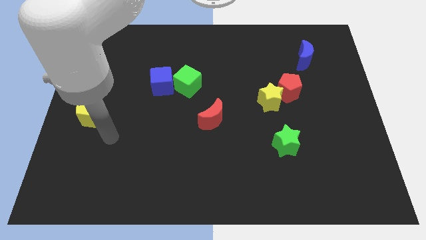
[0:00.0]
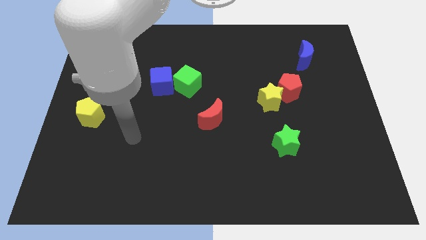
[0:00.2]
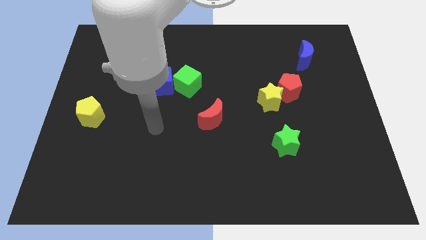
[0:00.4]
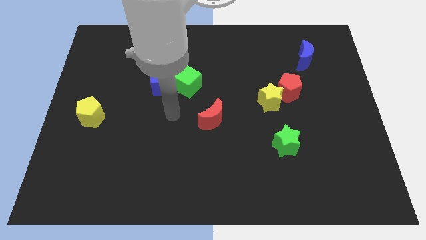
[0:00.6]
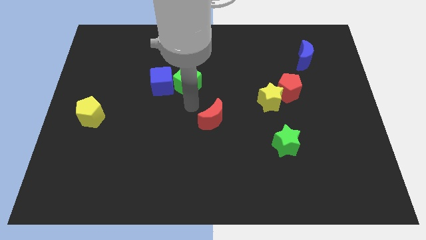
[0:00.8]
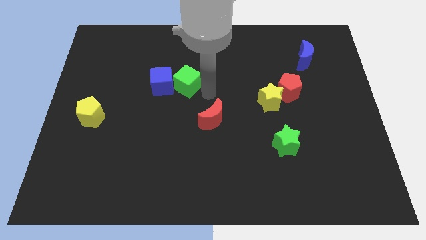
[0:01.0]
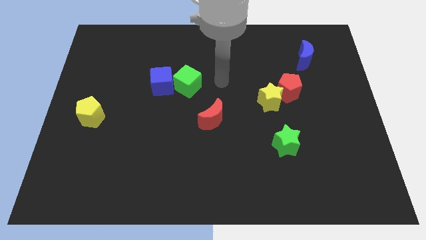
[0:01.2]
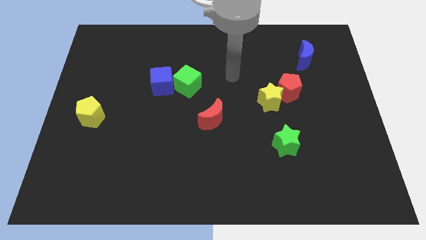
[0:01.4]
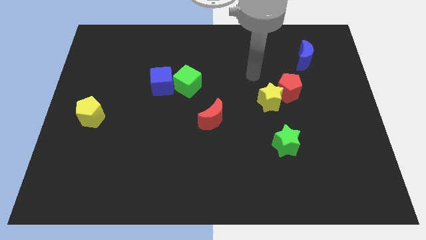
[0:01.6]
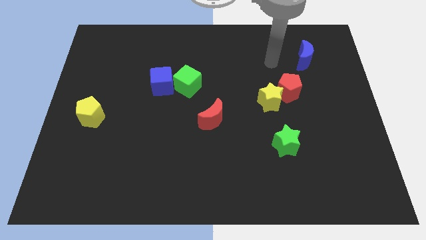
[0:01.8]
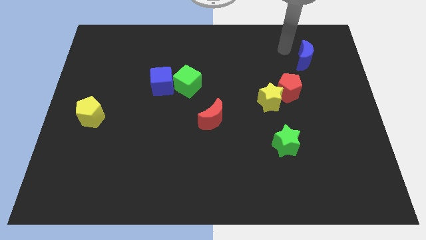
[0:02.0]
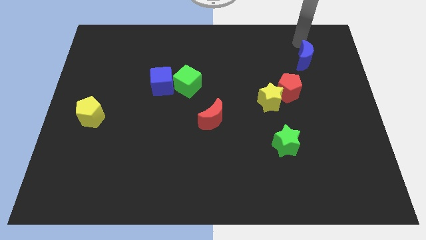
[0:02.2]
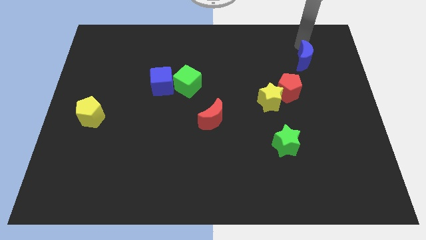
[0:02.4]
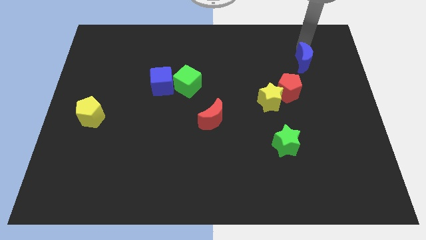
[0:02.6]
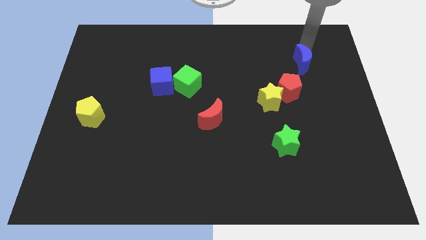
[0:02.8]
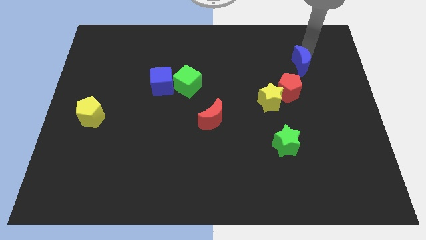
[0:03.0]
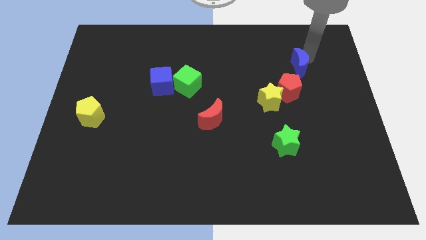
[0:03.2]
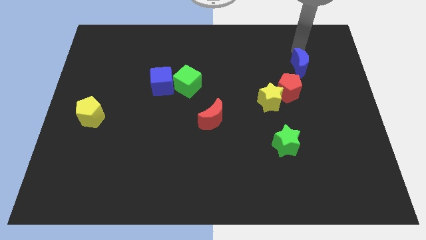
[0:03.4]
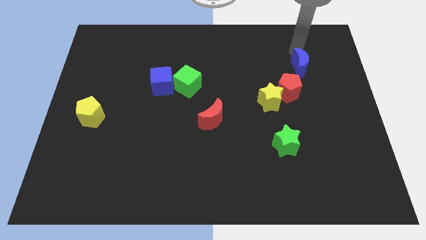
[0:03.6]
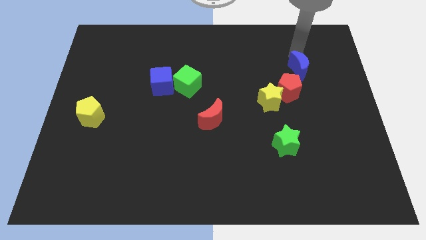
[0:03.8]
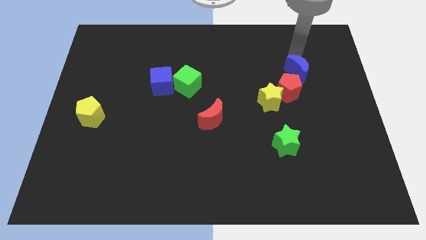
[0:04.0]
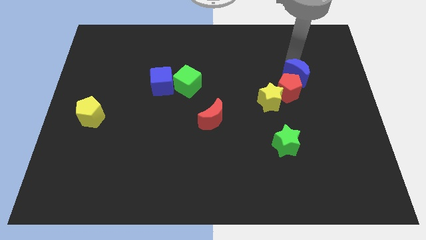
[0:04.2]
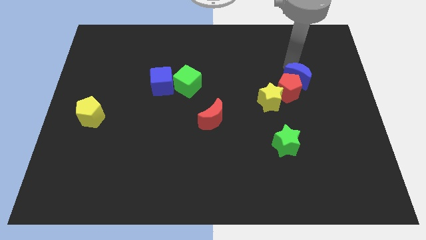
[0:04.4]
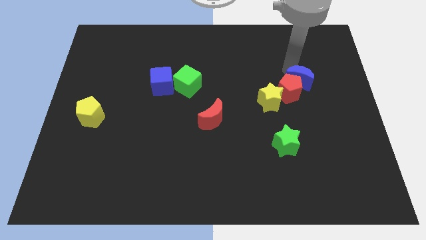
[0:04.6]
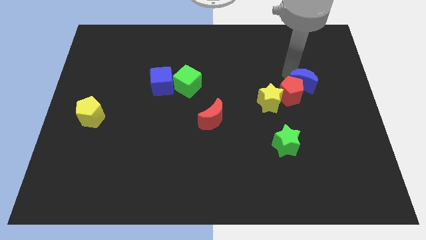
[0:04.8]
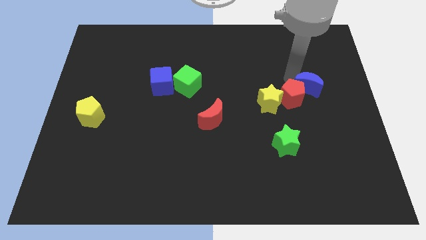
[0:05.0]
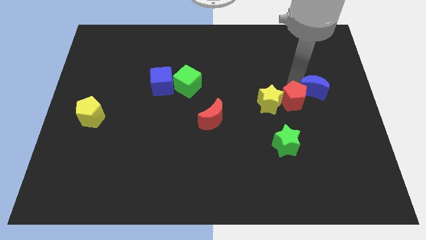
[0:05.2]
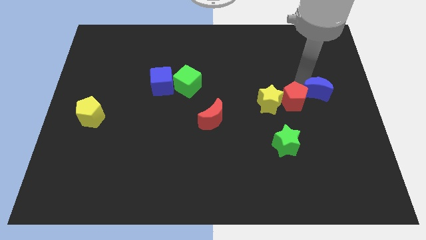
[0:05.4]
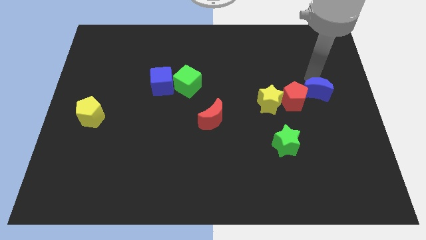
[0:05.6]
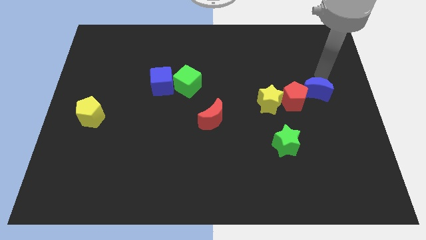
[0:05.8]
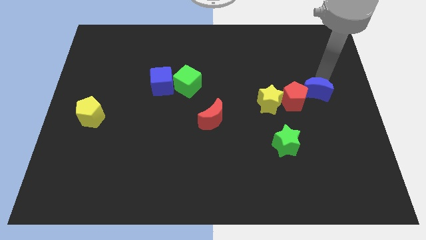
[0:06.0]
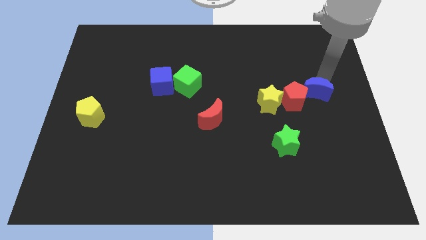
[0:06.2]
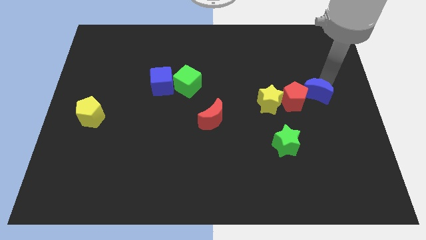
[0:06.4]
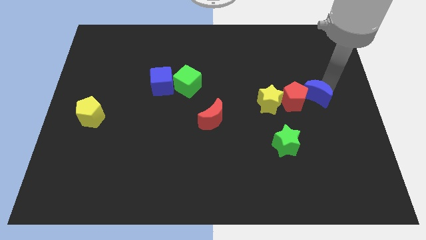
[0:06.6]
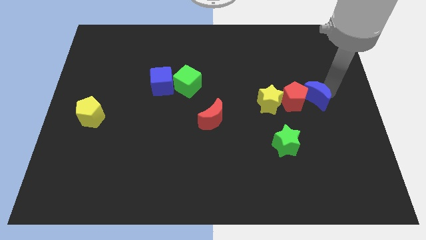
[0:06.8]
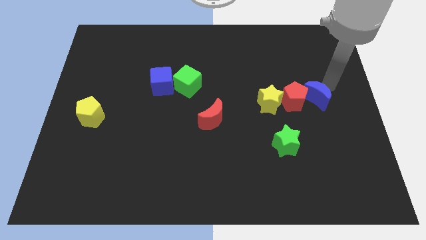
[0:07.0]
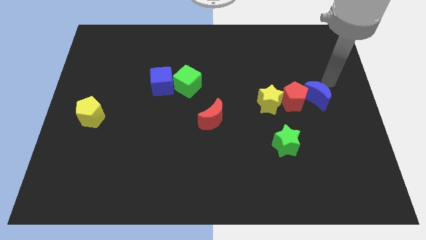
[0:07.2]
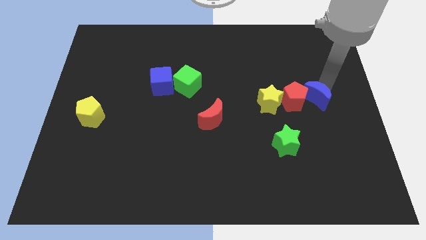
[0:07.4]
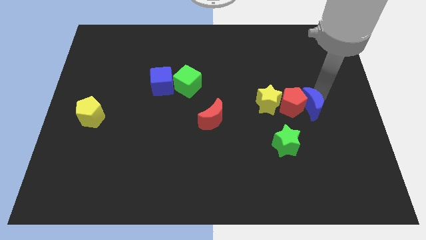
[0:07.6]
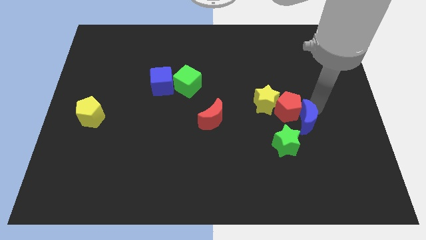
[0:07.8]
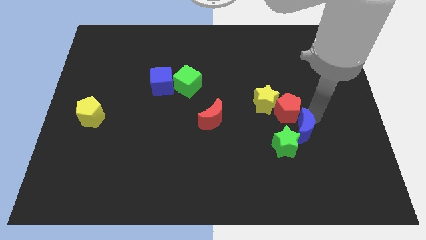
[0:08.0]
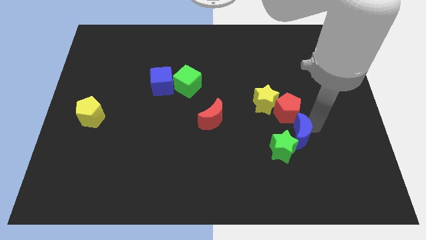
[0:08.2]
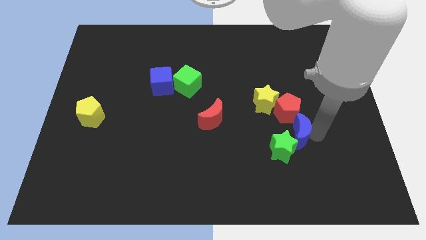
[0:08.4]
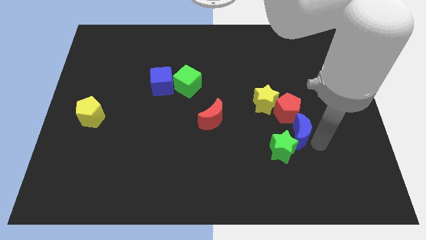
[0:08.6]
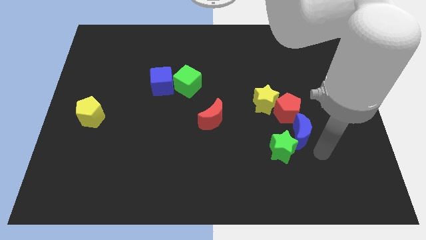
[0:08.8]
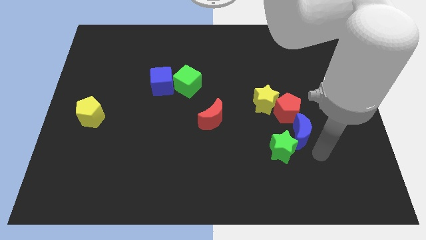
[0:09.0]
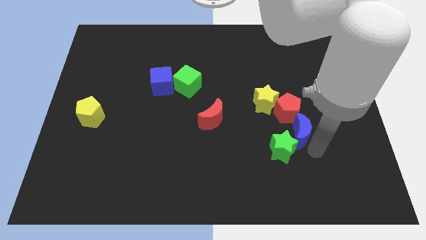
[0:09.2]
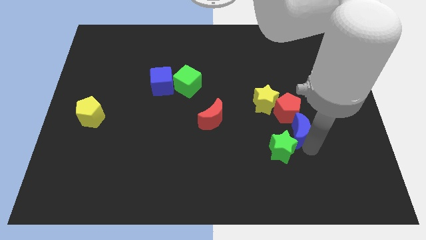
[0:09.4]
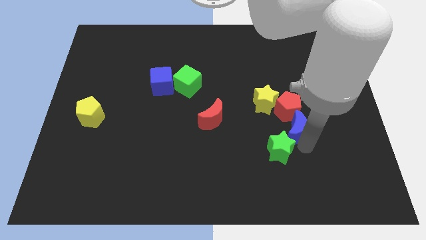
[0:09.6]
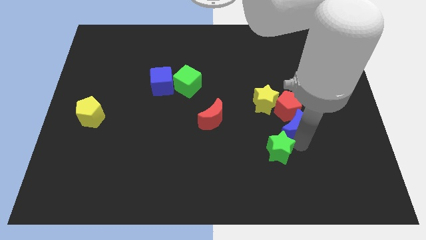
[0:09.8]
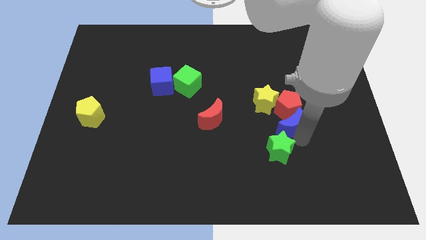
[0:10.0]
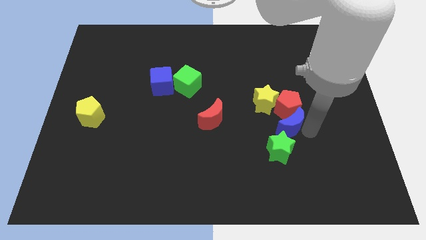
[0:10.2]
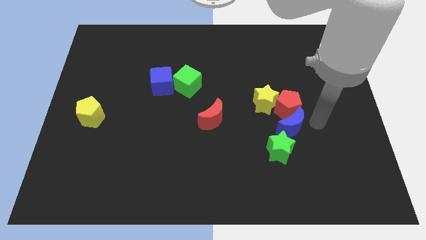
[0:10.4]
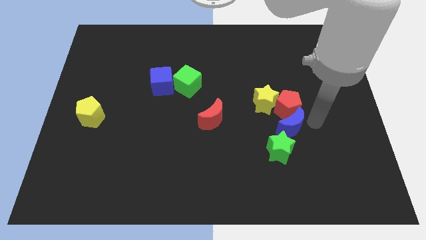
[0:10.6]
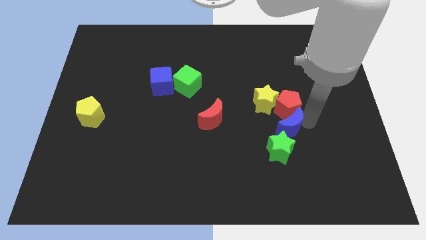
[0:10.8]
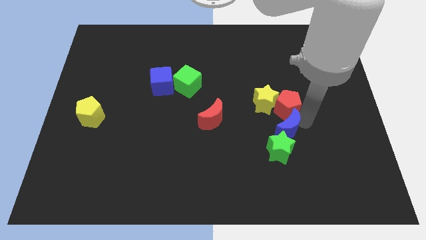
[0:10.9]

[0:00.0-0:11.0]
move the blue moon to the bottom side of the yellow star

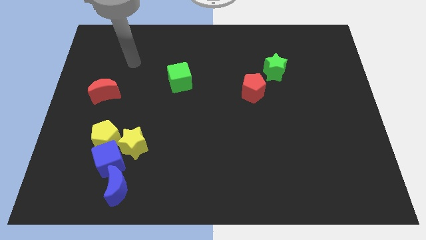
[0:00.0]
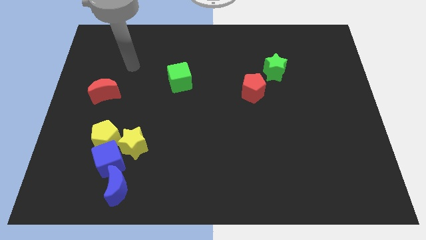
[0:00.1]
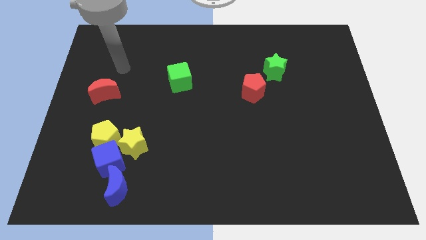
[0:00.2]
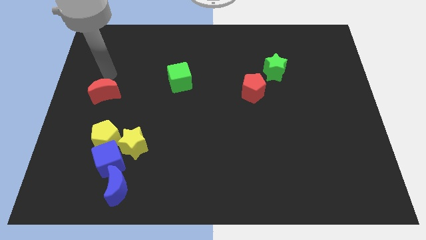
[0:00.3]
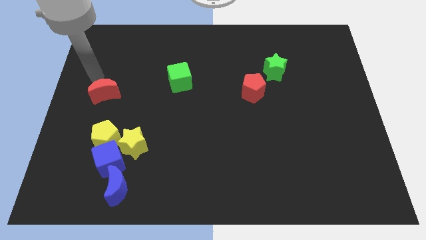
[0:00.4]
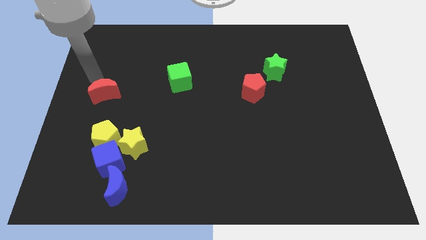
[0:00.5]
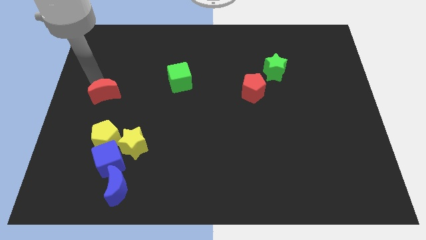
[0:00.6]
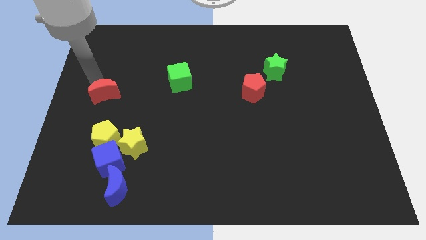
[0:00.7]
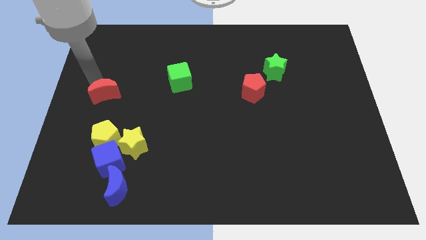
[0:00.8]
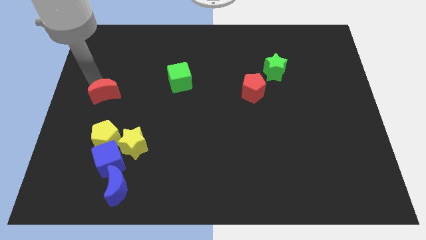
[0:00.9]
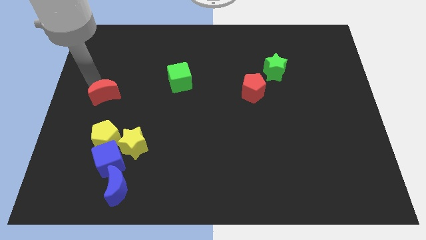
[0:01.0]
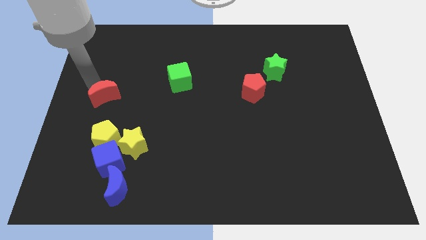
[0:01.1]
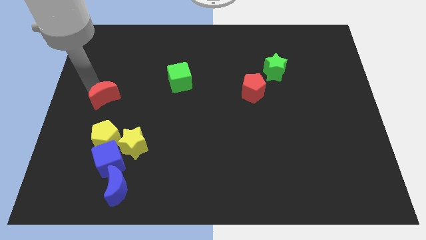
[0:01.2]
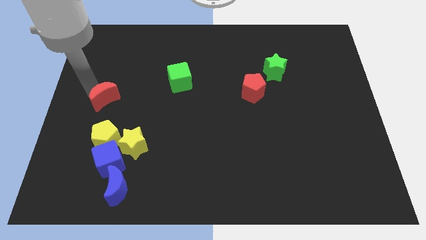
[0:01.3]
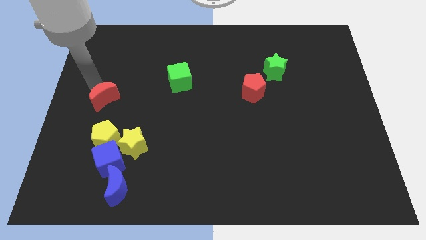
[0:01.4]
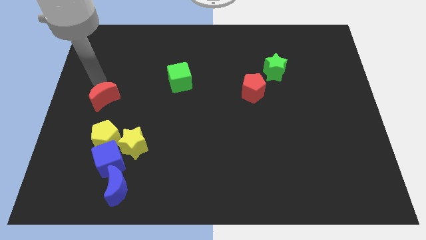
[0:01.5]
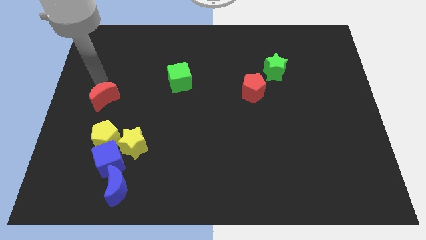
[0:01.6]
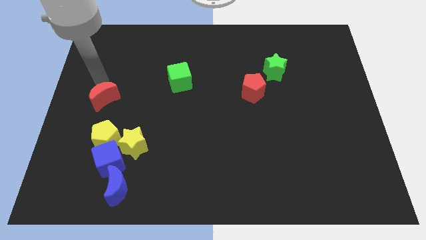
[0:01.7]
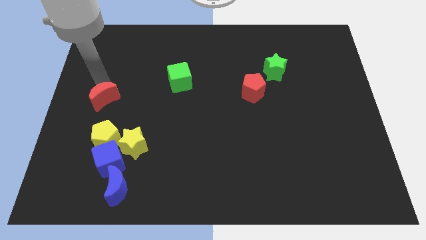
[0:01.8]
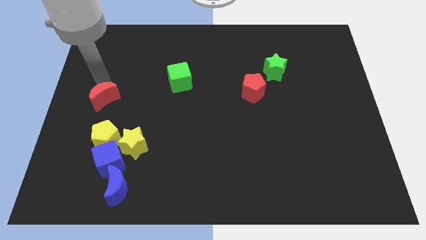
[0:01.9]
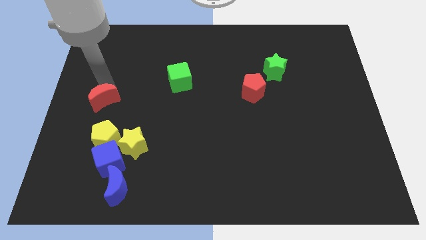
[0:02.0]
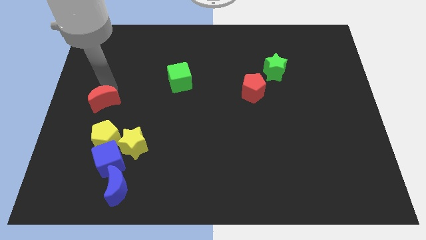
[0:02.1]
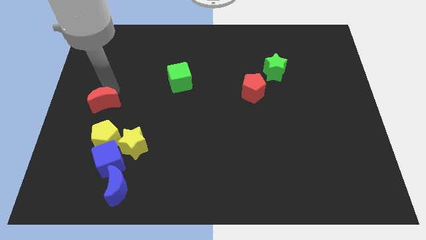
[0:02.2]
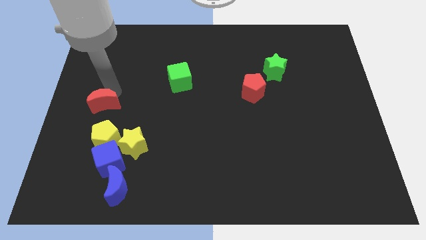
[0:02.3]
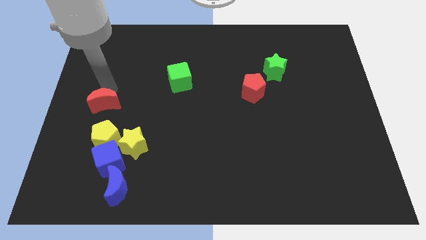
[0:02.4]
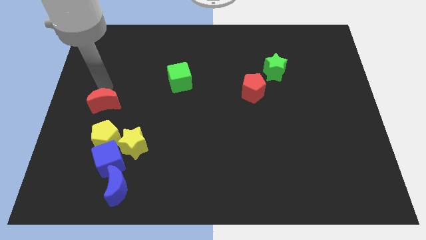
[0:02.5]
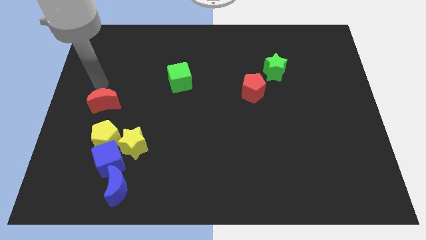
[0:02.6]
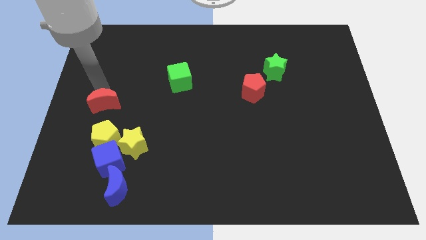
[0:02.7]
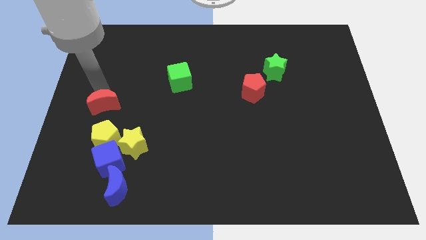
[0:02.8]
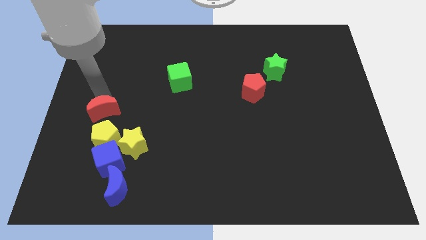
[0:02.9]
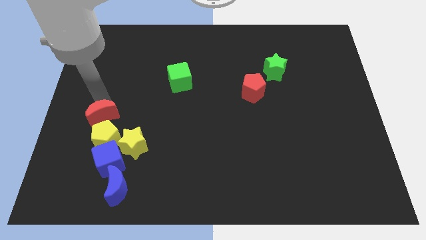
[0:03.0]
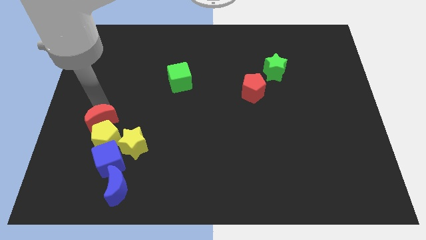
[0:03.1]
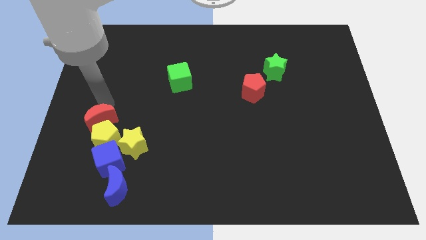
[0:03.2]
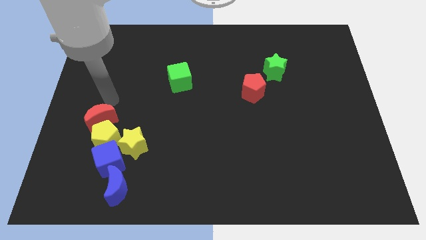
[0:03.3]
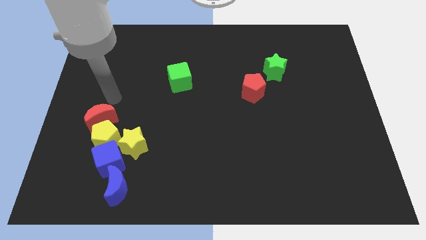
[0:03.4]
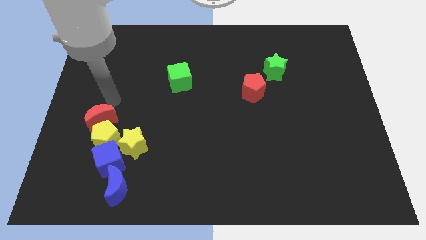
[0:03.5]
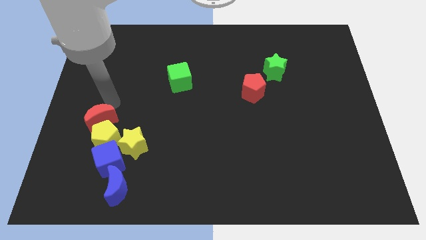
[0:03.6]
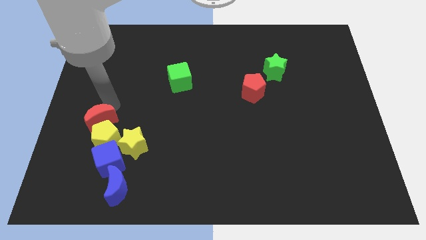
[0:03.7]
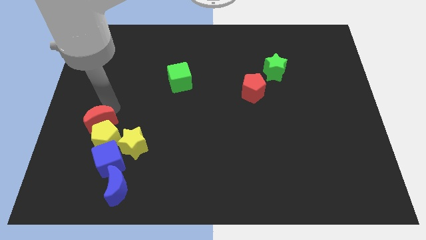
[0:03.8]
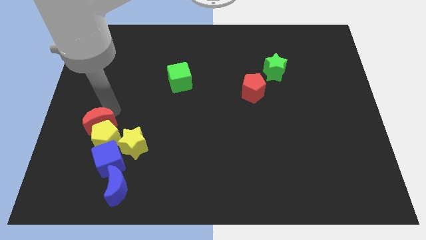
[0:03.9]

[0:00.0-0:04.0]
slide the red moon diagonally up and to the left of the blue cube
